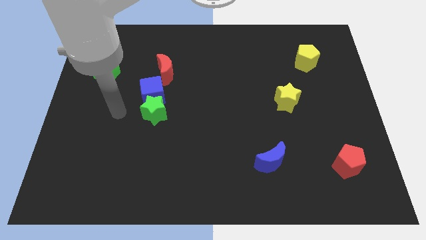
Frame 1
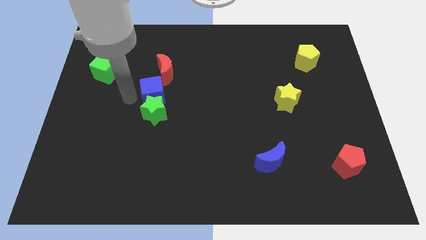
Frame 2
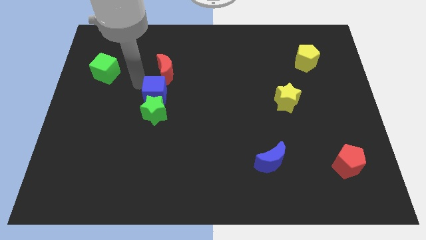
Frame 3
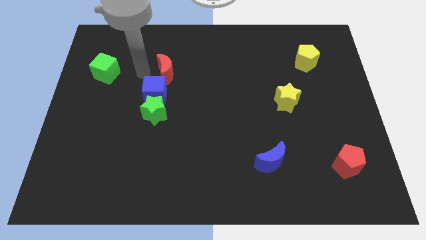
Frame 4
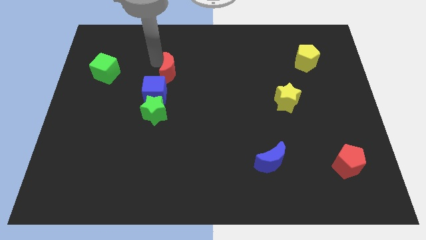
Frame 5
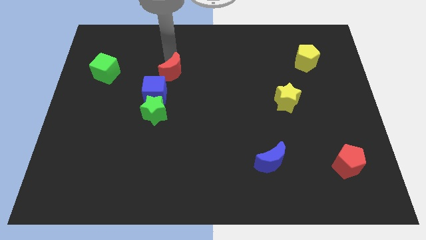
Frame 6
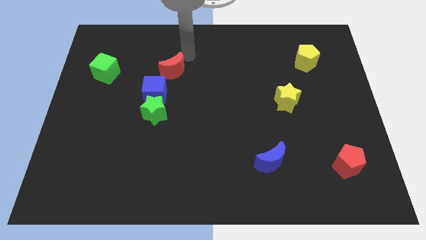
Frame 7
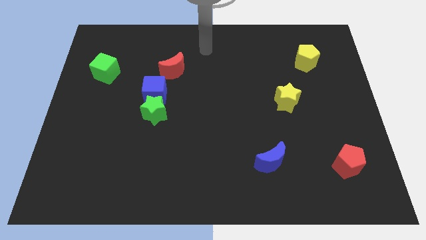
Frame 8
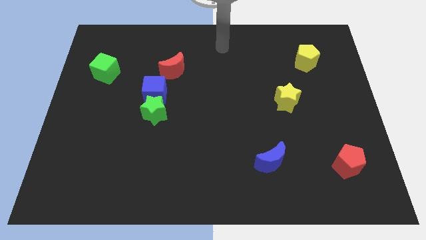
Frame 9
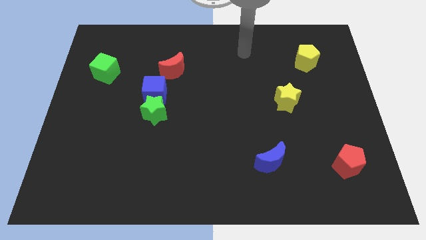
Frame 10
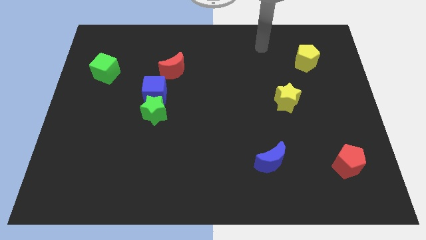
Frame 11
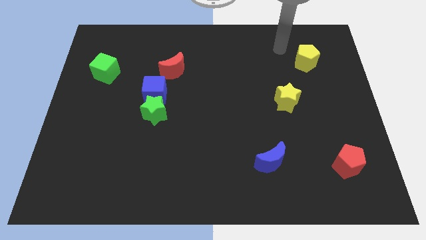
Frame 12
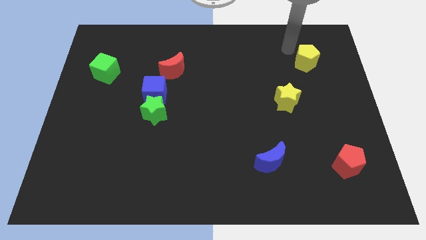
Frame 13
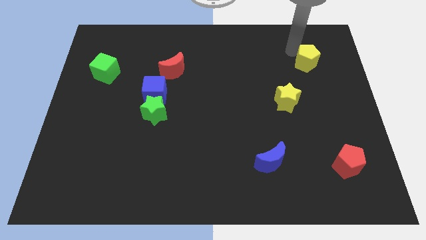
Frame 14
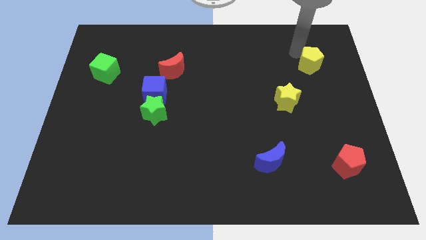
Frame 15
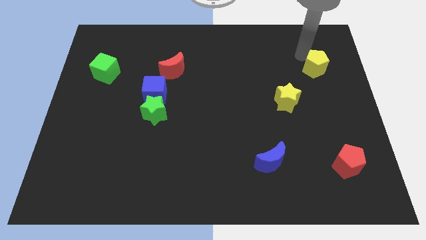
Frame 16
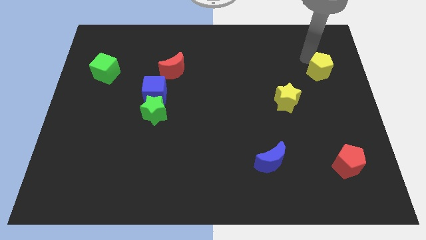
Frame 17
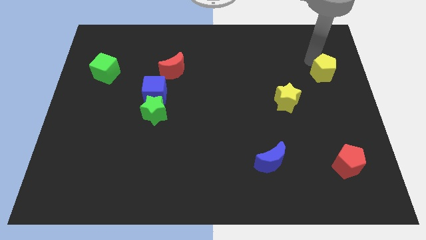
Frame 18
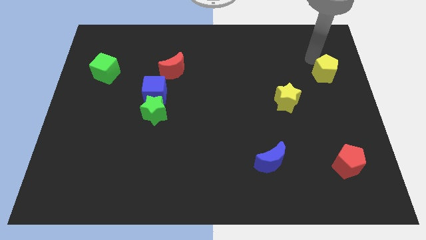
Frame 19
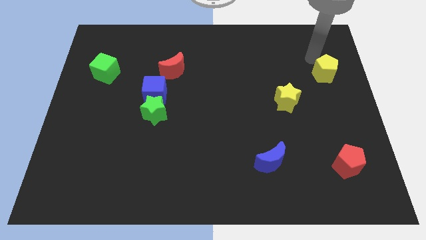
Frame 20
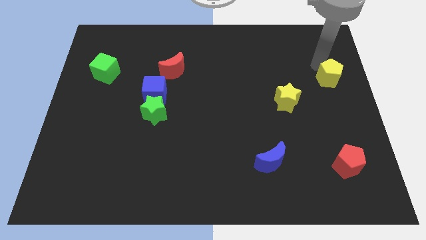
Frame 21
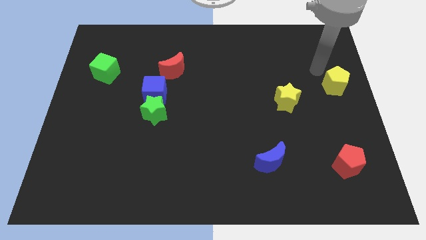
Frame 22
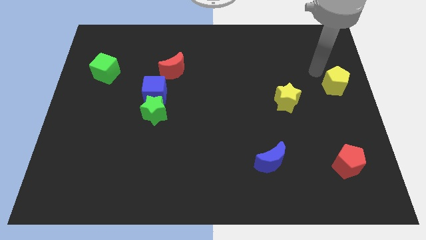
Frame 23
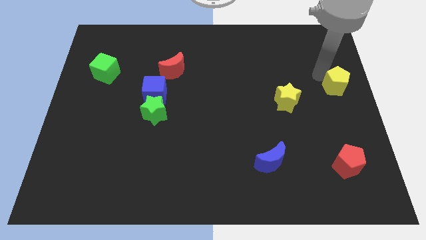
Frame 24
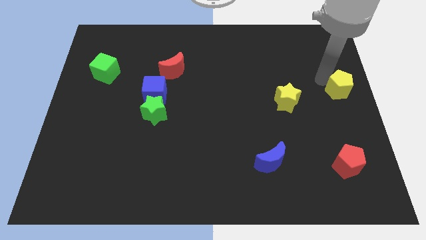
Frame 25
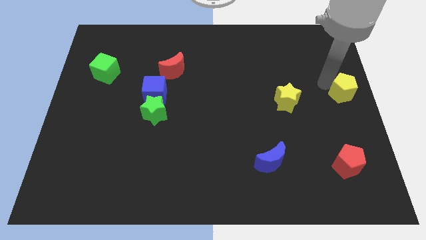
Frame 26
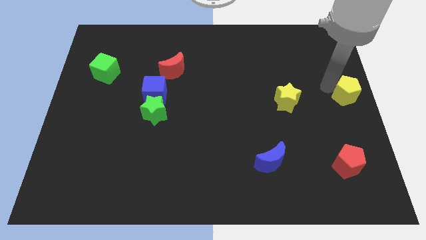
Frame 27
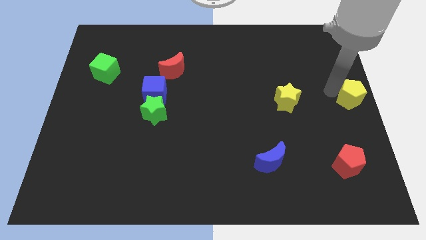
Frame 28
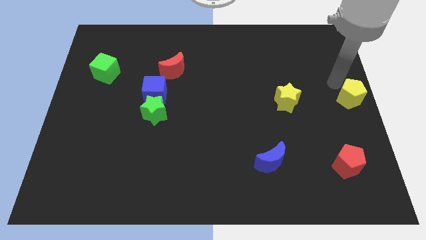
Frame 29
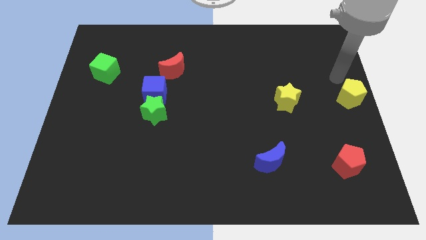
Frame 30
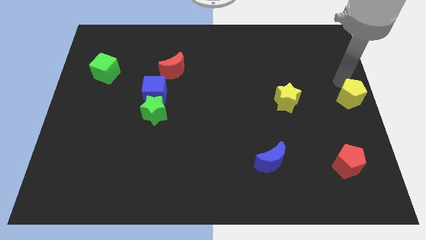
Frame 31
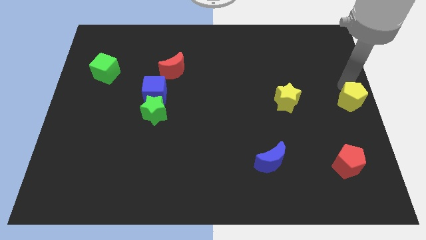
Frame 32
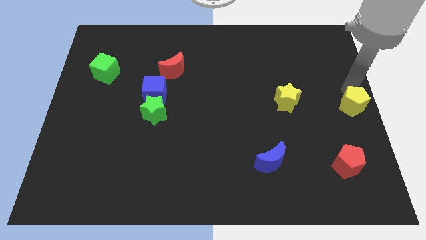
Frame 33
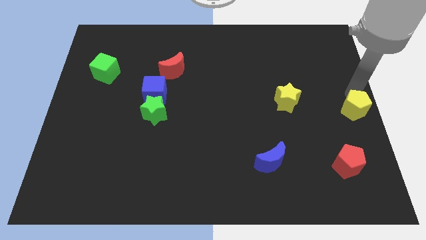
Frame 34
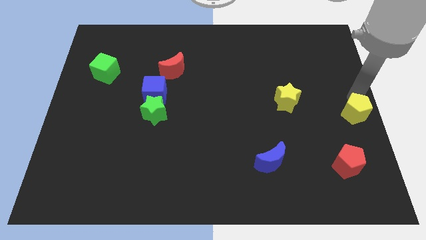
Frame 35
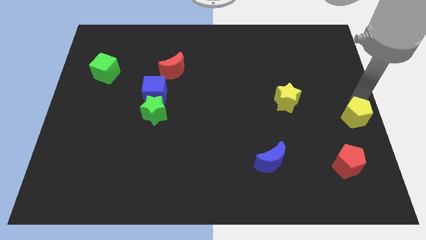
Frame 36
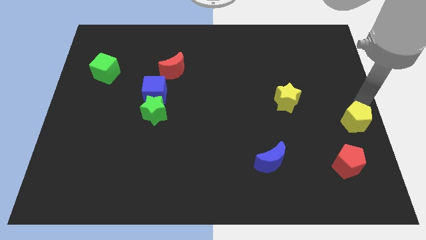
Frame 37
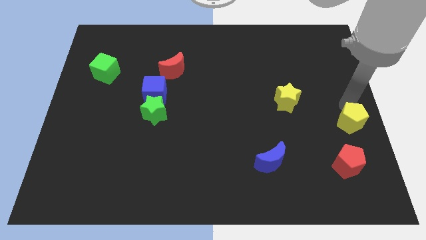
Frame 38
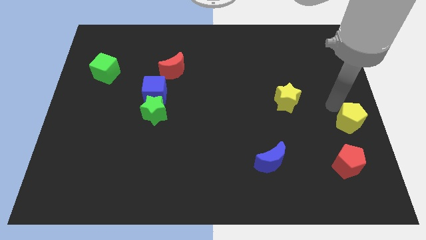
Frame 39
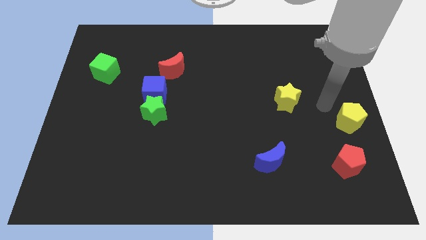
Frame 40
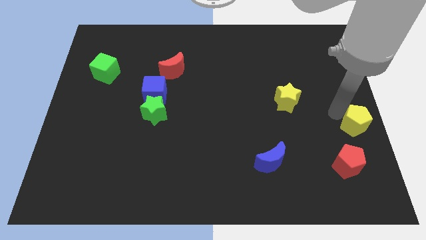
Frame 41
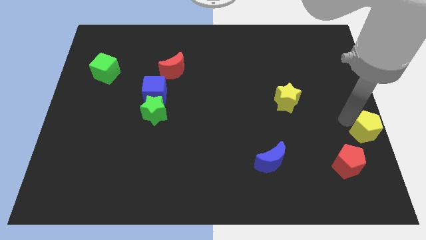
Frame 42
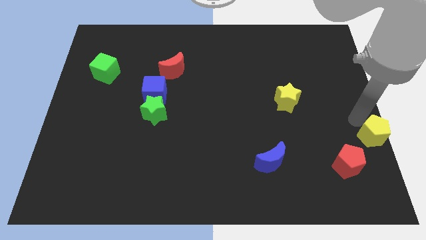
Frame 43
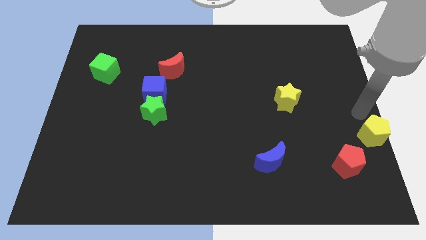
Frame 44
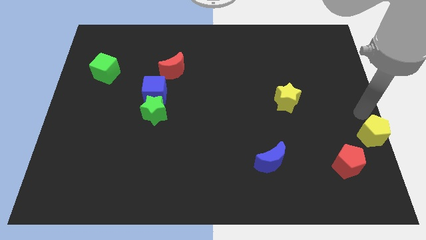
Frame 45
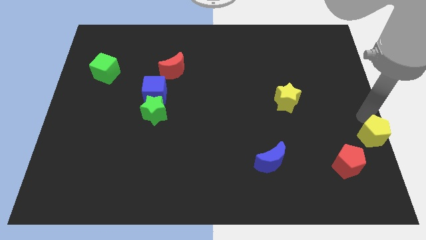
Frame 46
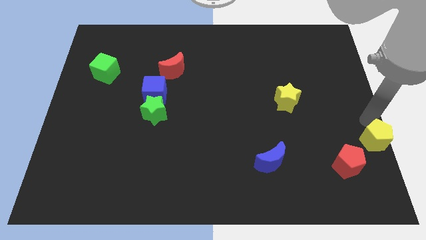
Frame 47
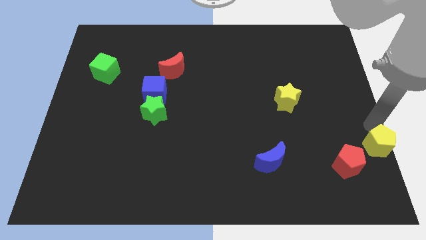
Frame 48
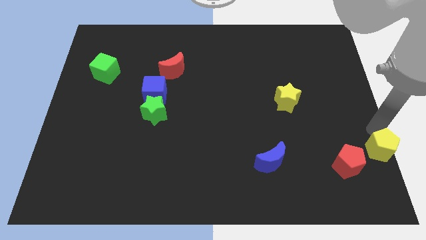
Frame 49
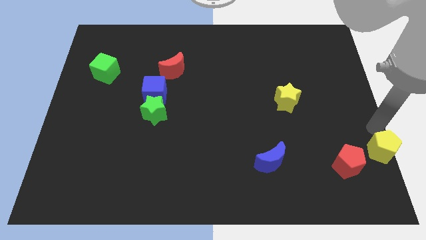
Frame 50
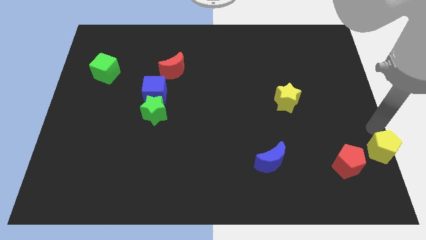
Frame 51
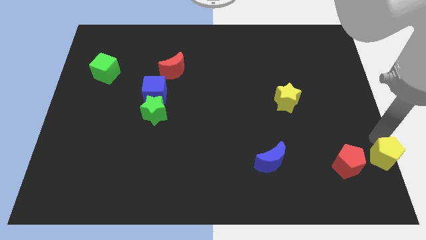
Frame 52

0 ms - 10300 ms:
put the yellow pentagon to the bottom right corner

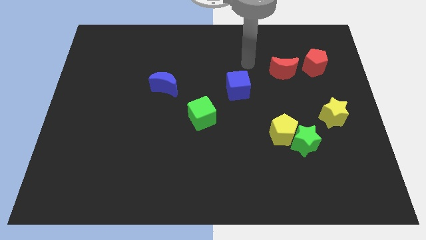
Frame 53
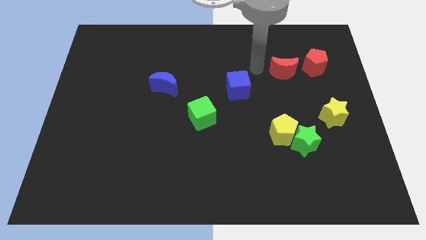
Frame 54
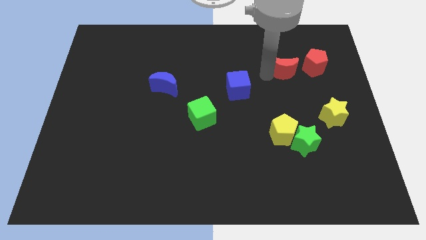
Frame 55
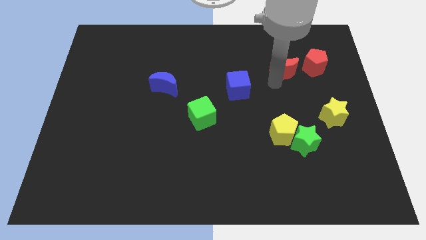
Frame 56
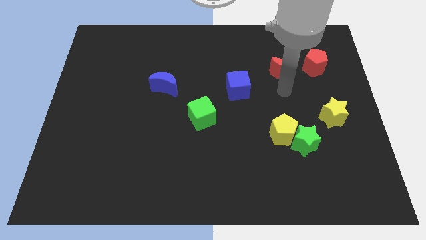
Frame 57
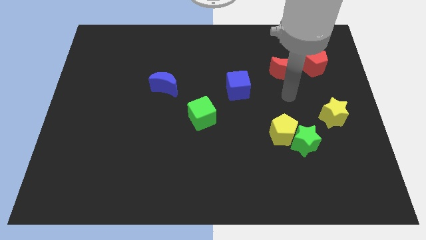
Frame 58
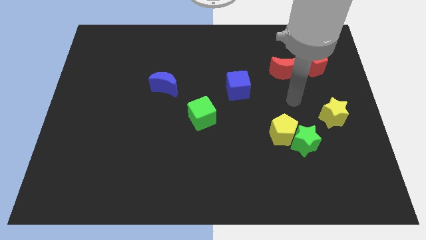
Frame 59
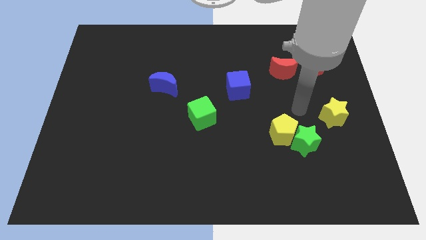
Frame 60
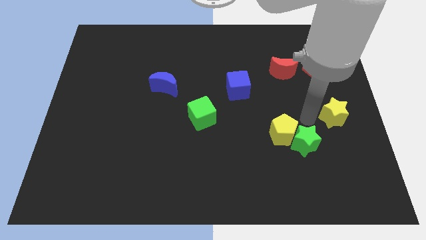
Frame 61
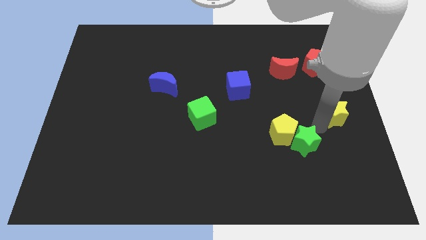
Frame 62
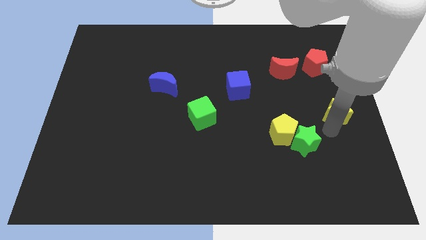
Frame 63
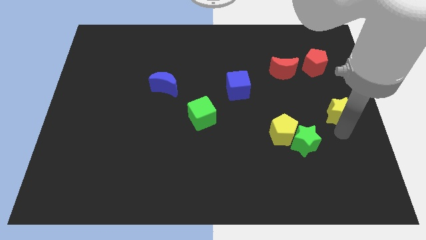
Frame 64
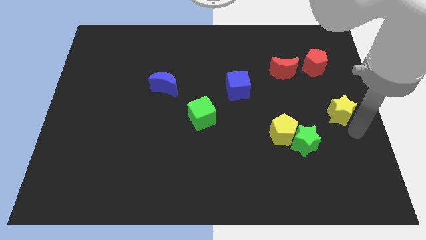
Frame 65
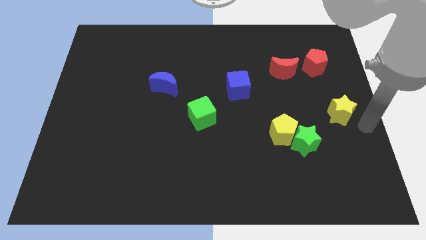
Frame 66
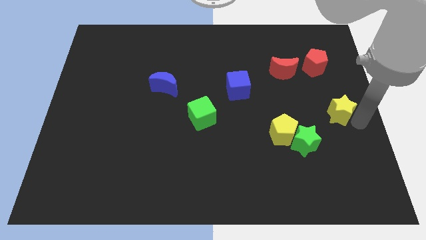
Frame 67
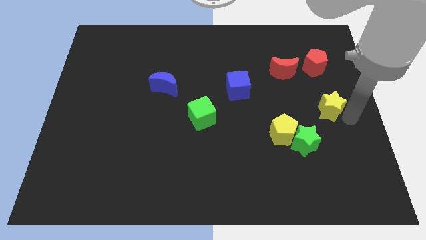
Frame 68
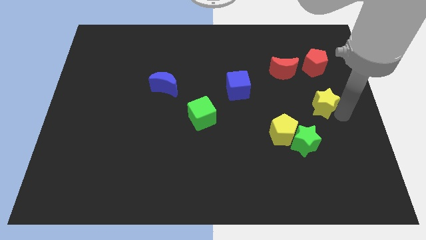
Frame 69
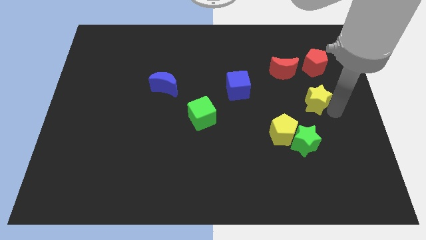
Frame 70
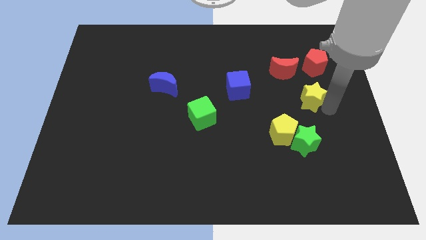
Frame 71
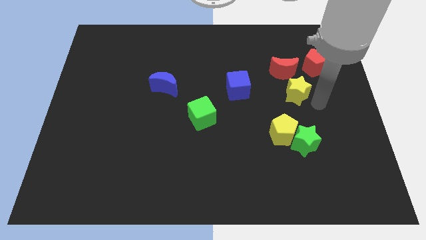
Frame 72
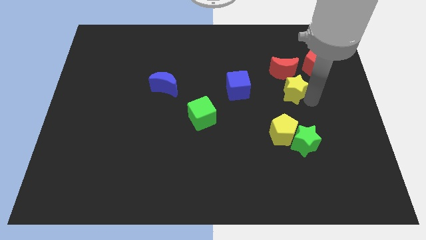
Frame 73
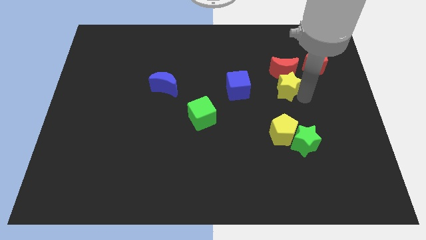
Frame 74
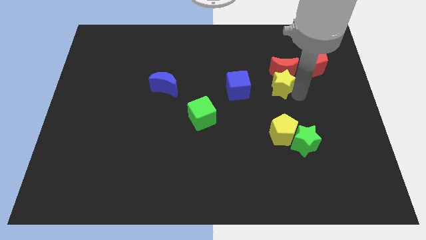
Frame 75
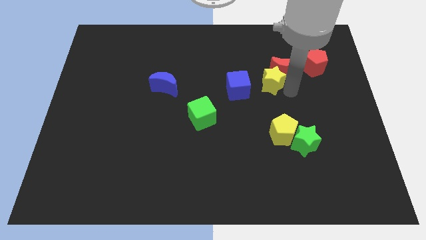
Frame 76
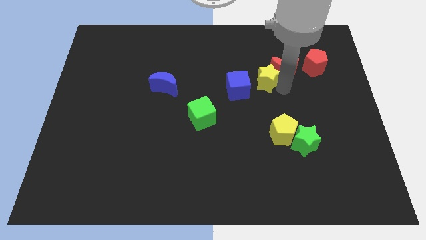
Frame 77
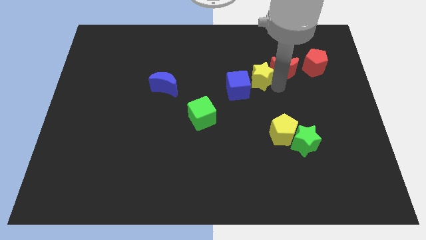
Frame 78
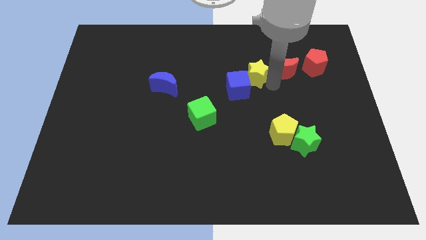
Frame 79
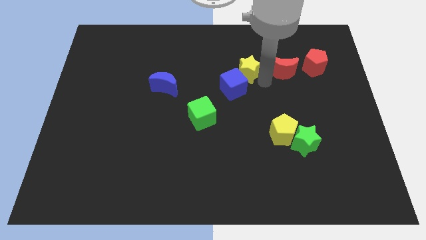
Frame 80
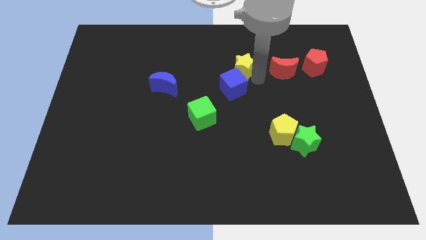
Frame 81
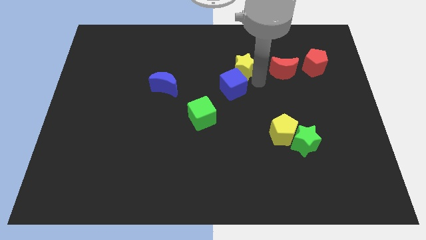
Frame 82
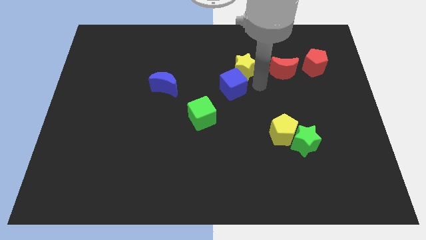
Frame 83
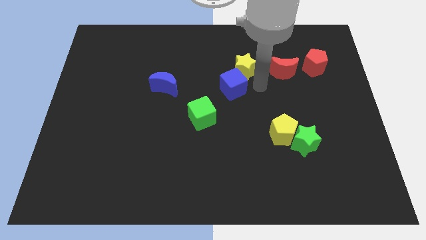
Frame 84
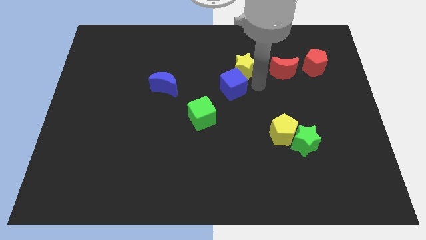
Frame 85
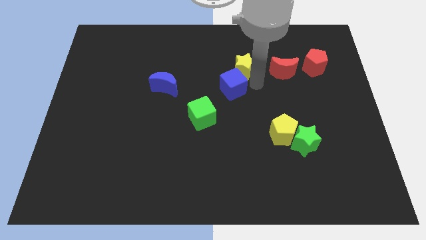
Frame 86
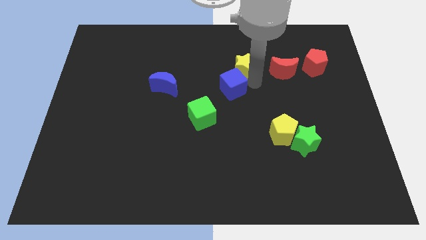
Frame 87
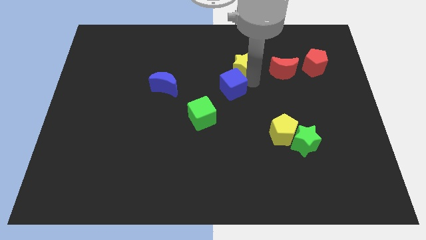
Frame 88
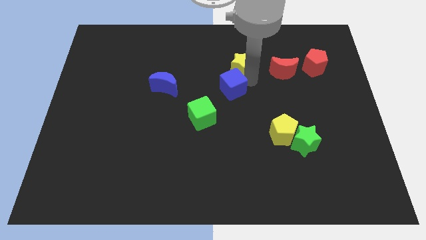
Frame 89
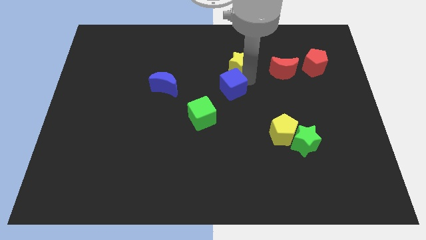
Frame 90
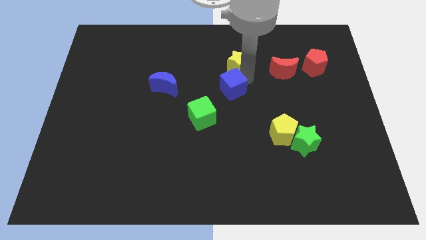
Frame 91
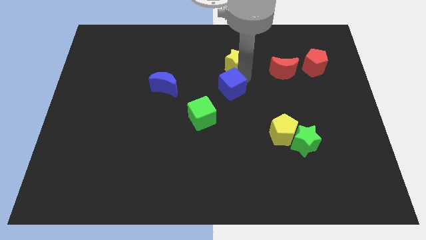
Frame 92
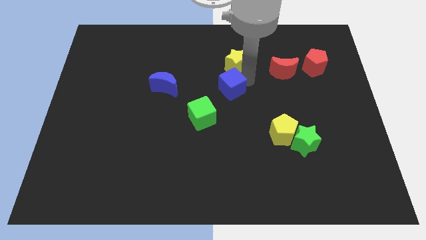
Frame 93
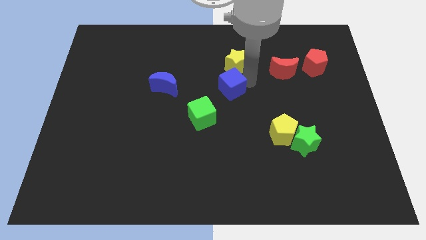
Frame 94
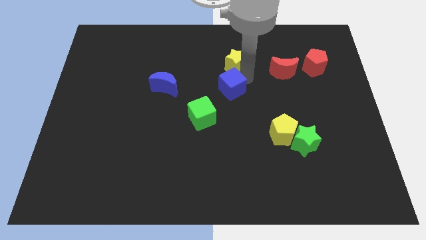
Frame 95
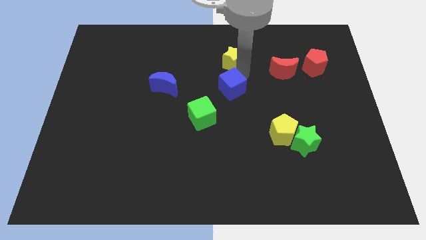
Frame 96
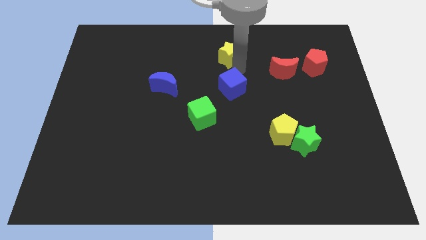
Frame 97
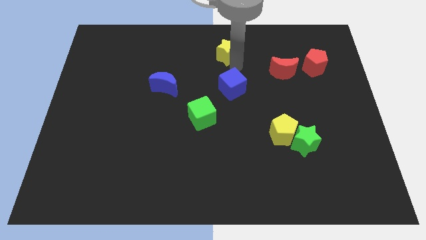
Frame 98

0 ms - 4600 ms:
move the yellow star to the towards your base
